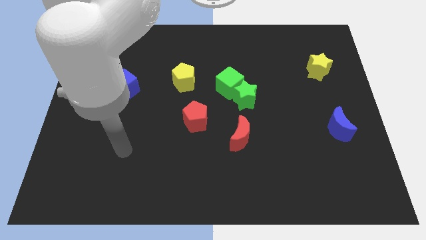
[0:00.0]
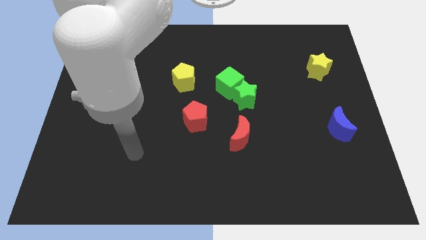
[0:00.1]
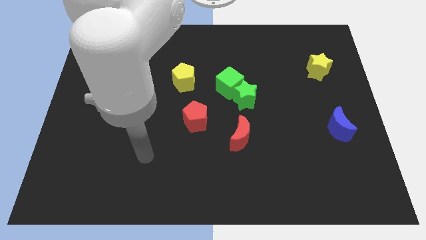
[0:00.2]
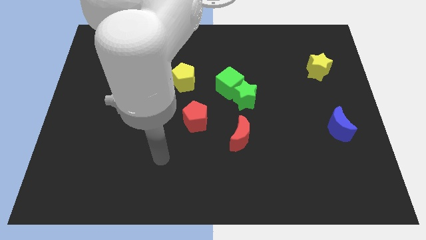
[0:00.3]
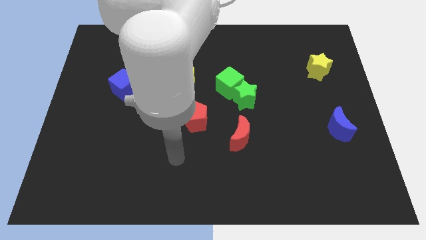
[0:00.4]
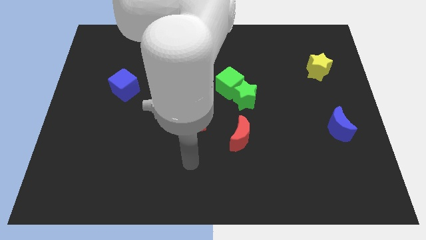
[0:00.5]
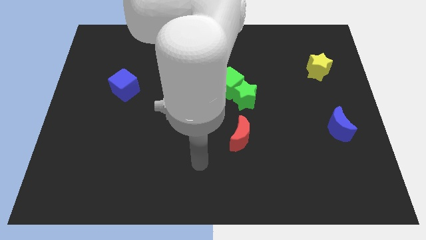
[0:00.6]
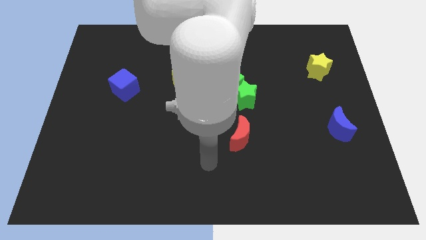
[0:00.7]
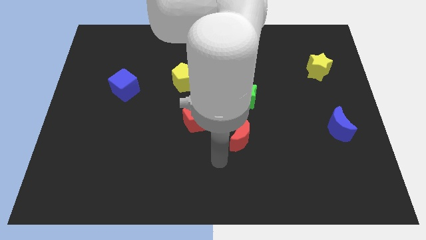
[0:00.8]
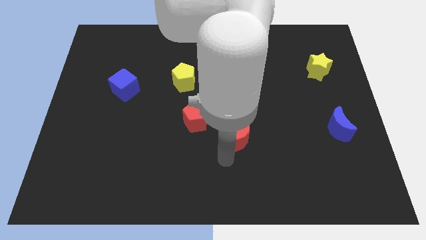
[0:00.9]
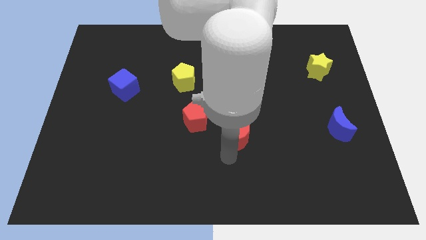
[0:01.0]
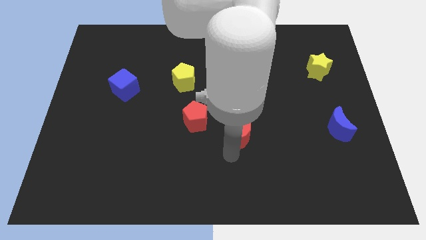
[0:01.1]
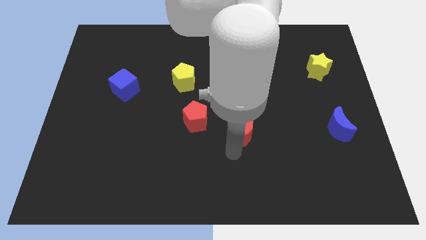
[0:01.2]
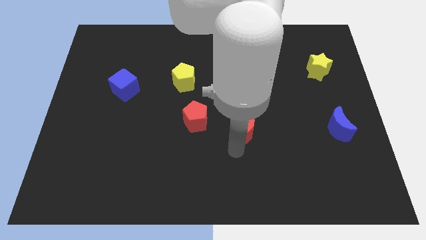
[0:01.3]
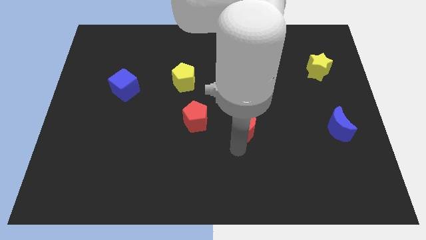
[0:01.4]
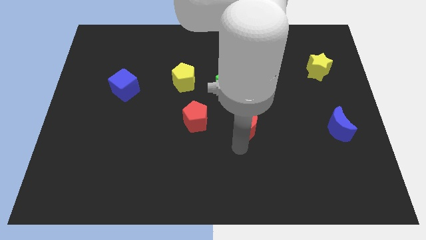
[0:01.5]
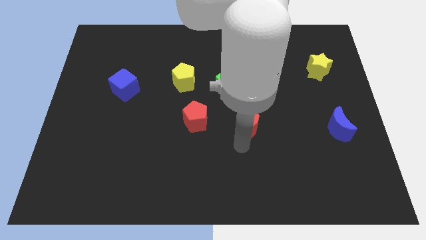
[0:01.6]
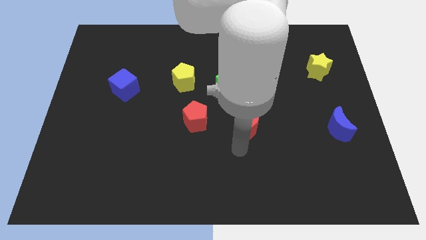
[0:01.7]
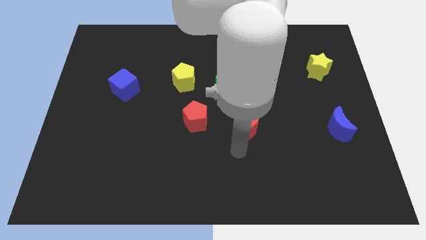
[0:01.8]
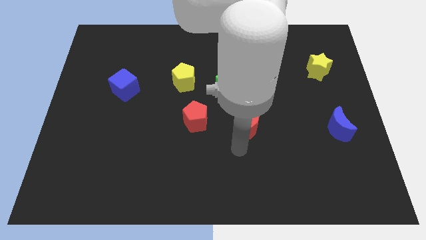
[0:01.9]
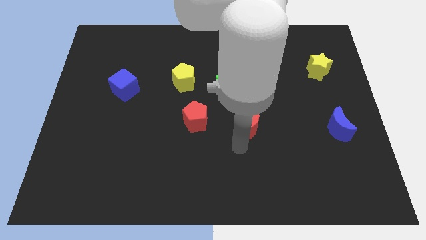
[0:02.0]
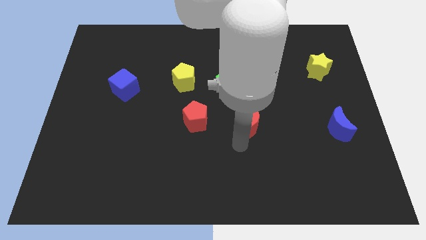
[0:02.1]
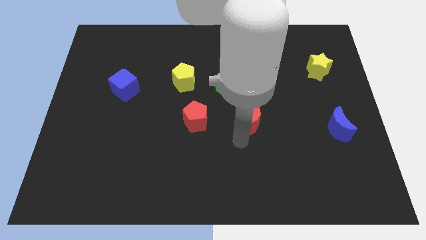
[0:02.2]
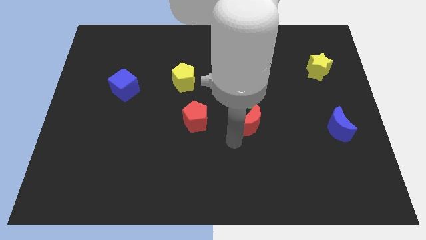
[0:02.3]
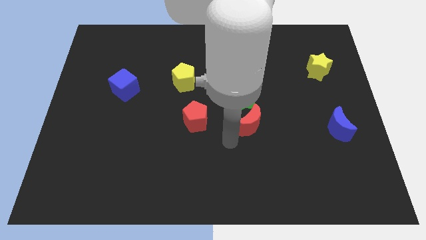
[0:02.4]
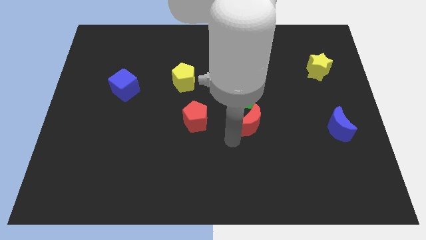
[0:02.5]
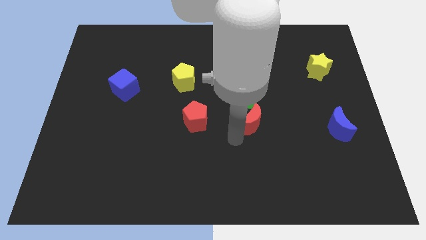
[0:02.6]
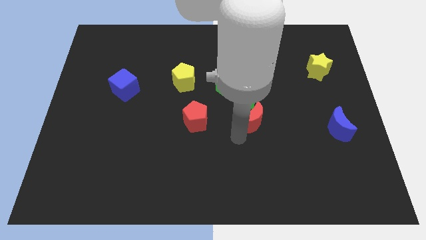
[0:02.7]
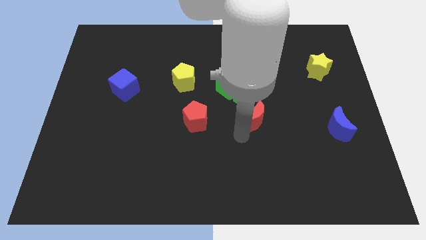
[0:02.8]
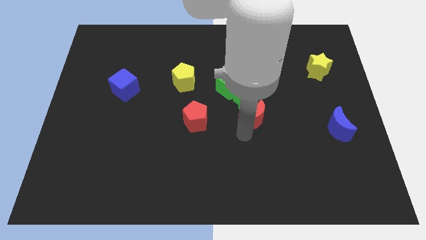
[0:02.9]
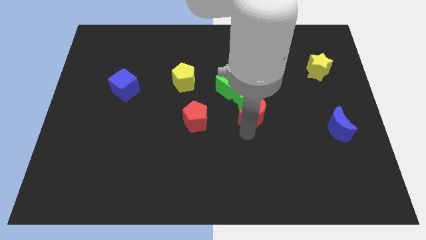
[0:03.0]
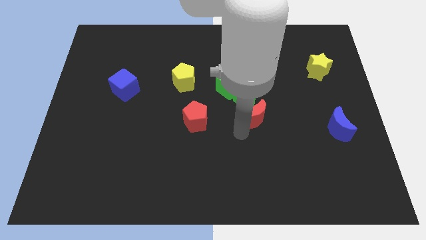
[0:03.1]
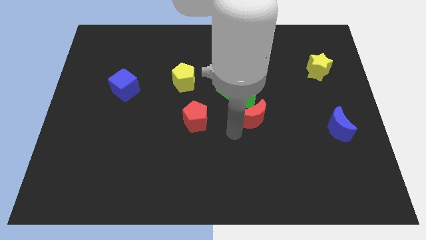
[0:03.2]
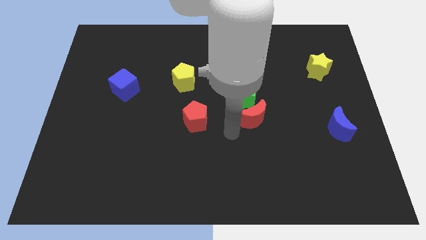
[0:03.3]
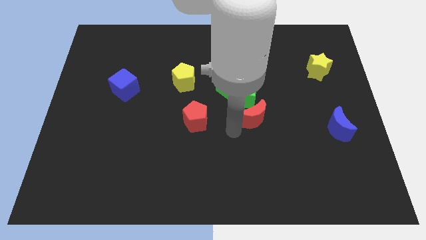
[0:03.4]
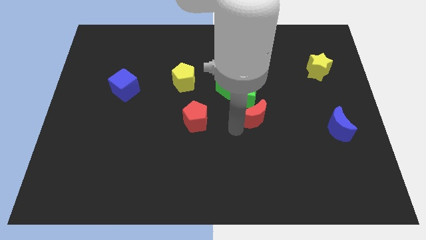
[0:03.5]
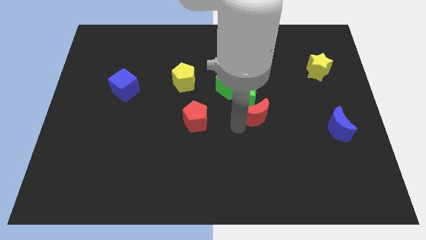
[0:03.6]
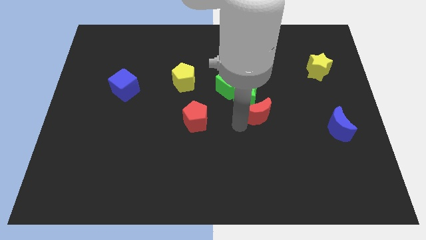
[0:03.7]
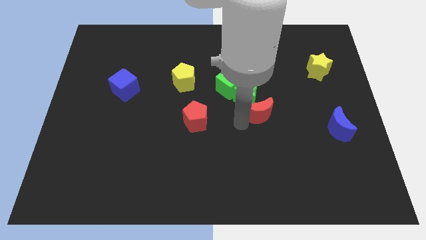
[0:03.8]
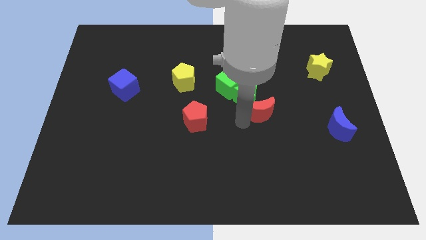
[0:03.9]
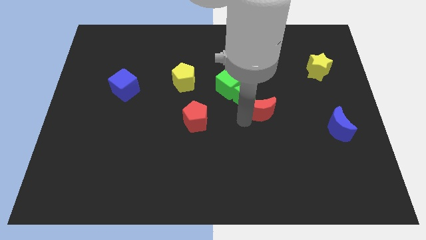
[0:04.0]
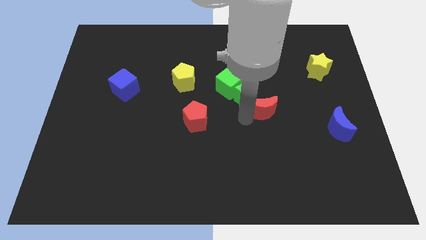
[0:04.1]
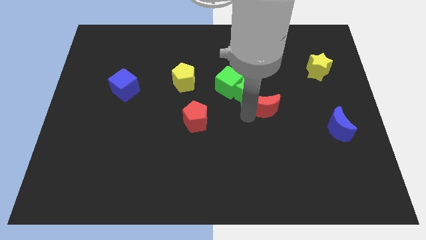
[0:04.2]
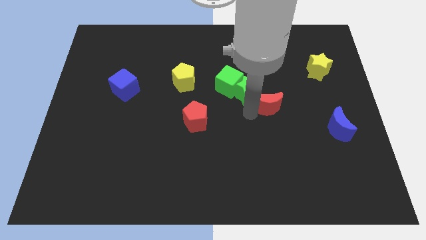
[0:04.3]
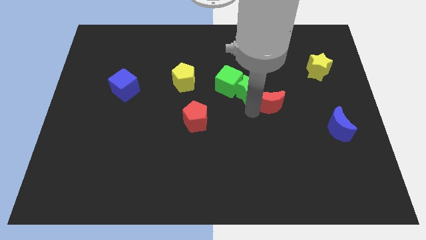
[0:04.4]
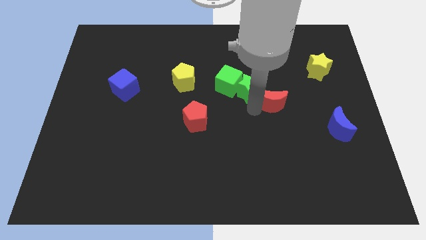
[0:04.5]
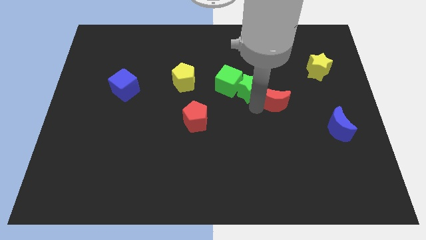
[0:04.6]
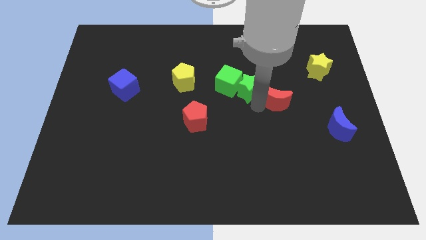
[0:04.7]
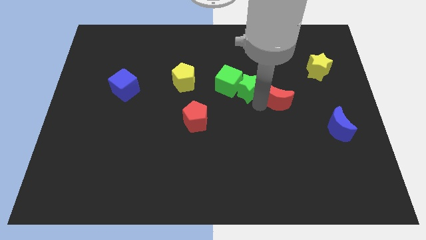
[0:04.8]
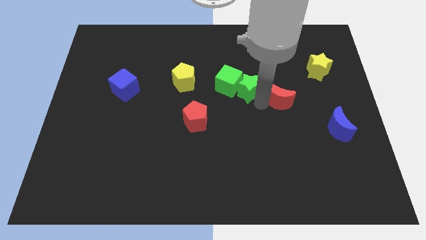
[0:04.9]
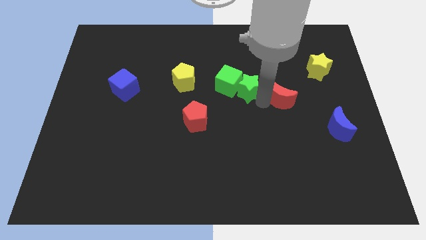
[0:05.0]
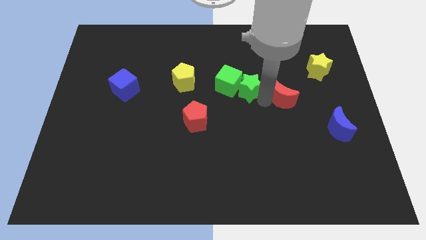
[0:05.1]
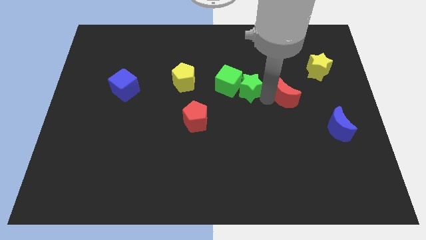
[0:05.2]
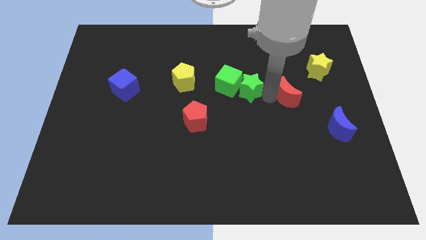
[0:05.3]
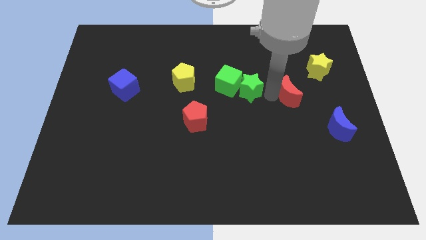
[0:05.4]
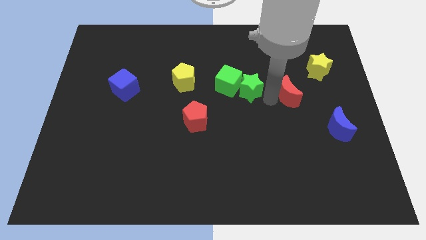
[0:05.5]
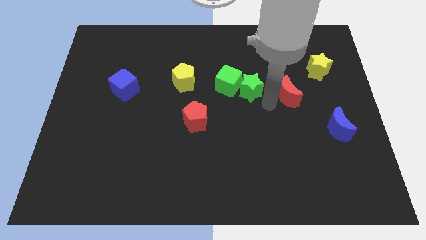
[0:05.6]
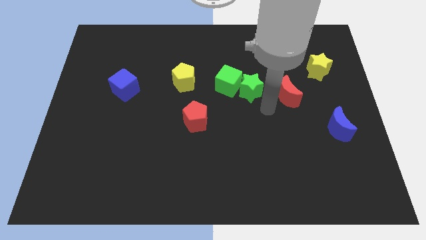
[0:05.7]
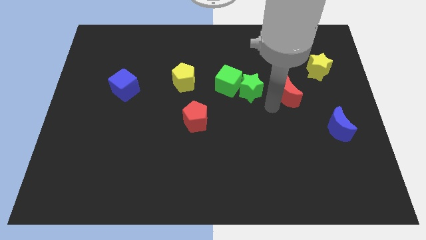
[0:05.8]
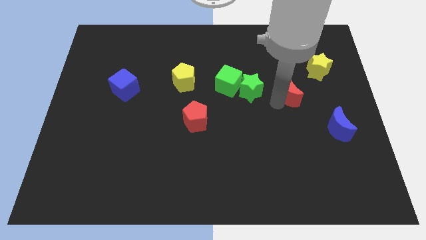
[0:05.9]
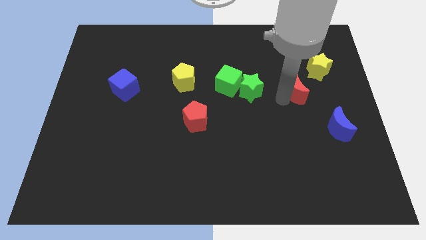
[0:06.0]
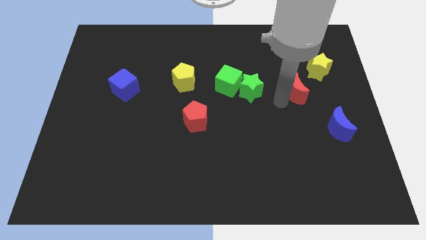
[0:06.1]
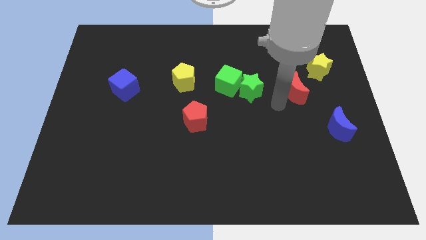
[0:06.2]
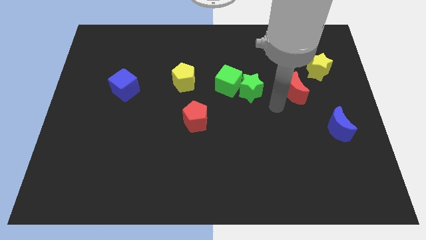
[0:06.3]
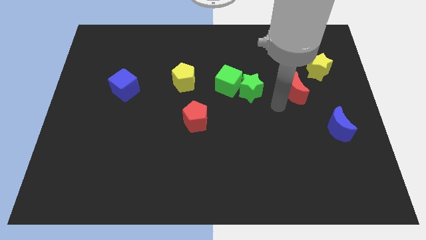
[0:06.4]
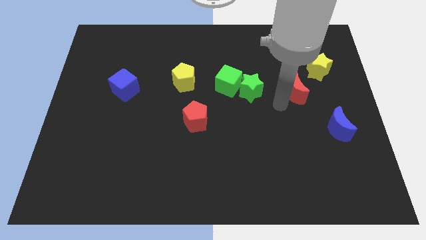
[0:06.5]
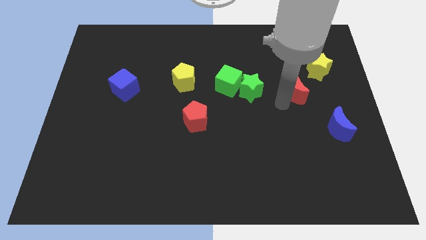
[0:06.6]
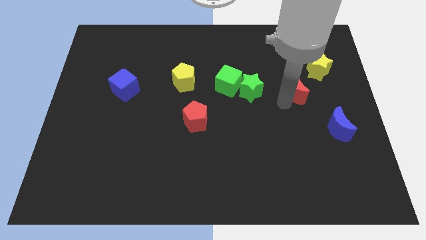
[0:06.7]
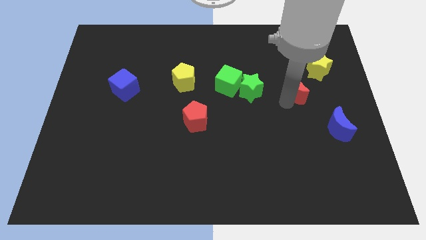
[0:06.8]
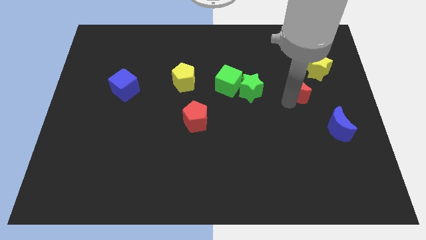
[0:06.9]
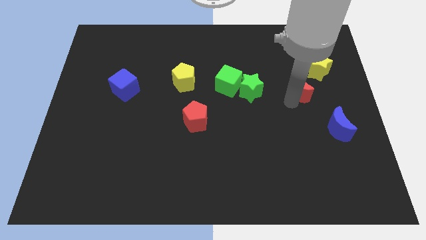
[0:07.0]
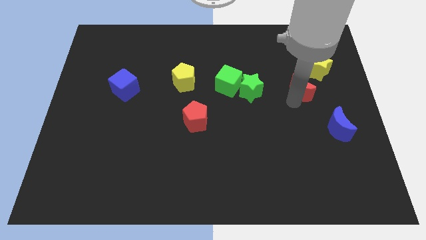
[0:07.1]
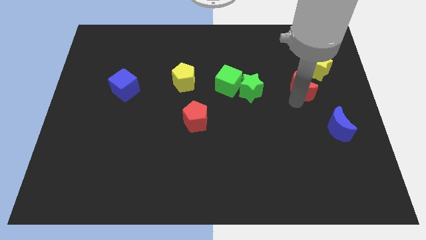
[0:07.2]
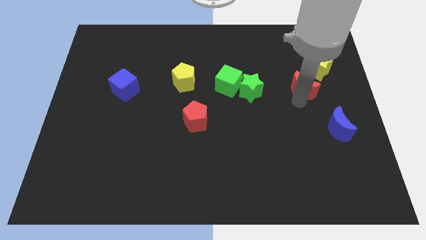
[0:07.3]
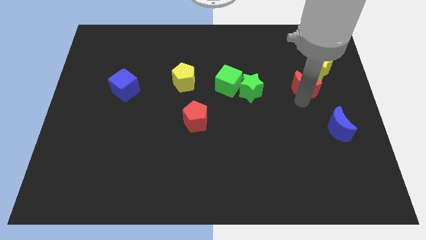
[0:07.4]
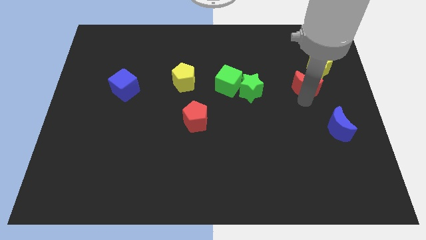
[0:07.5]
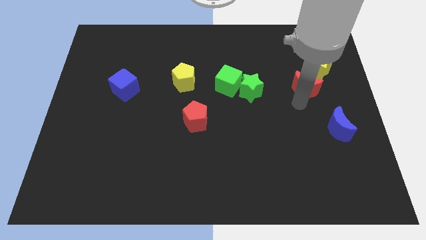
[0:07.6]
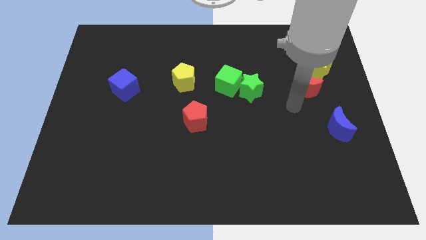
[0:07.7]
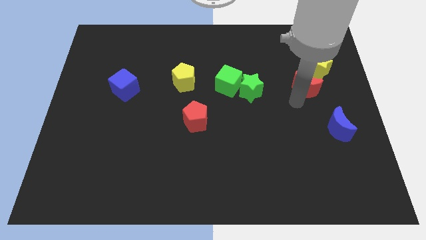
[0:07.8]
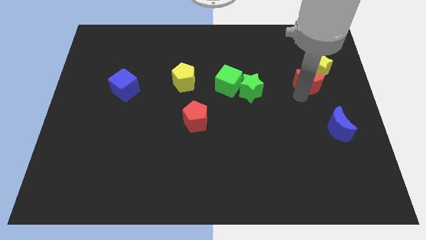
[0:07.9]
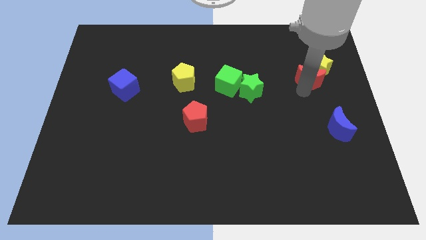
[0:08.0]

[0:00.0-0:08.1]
move the red moon towards the yellow star
